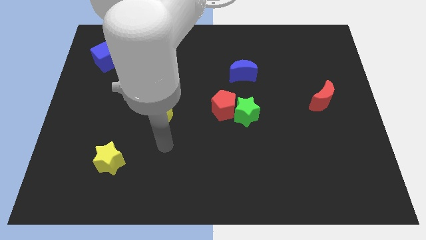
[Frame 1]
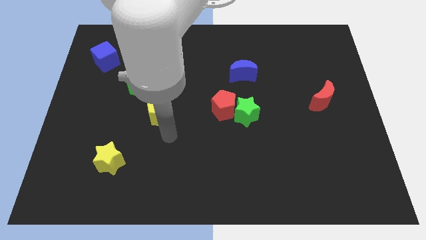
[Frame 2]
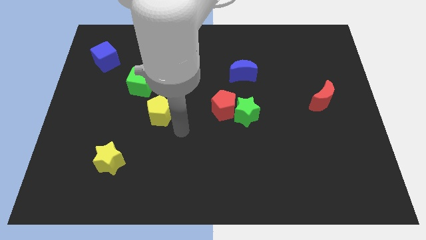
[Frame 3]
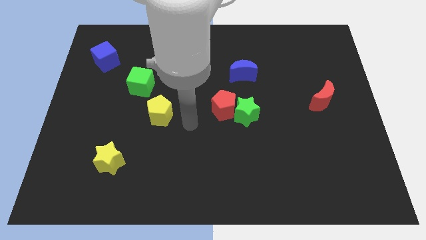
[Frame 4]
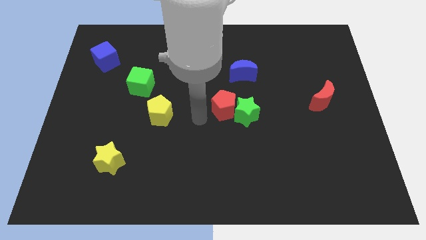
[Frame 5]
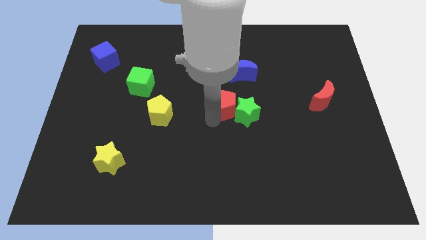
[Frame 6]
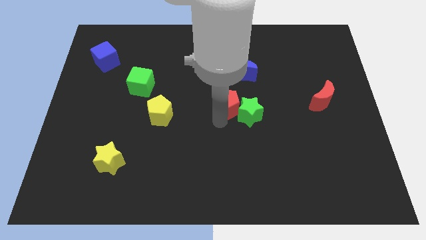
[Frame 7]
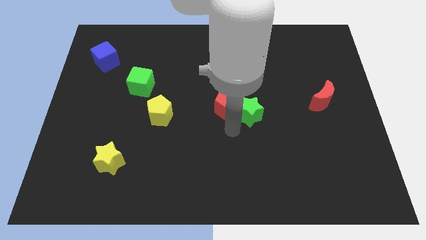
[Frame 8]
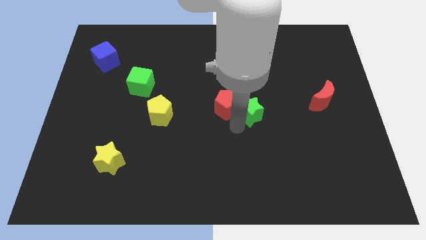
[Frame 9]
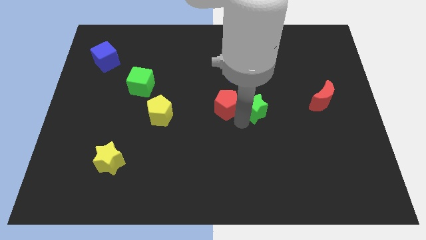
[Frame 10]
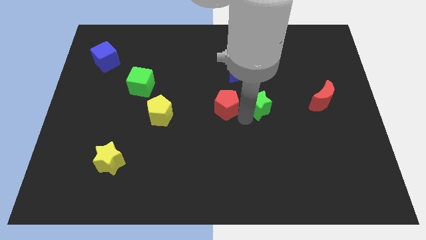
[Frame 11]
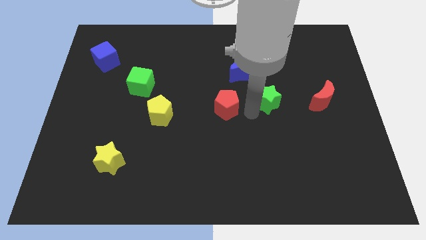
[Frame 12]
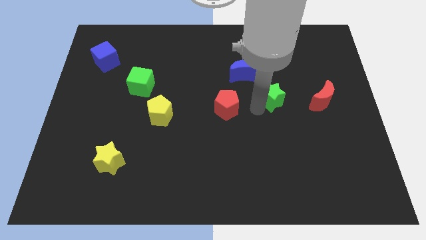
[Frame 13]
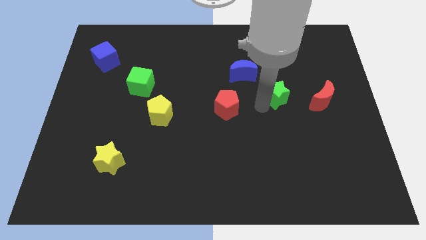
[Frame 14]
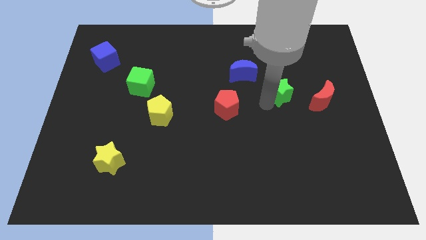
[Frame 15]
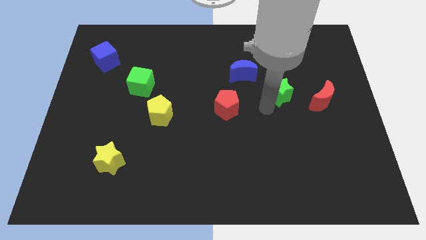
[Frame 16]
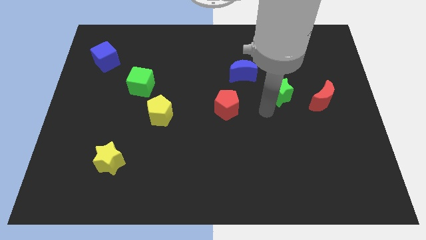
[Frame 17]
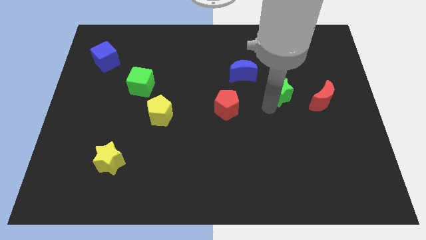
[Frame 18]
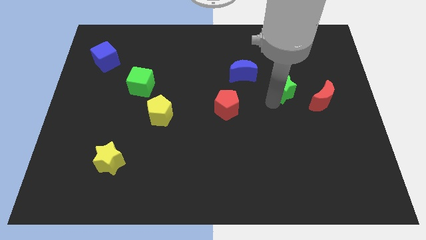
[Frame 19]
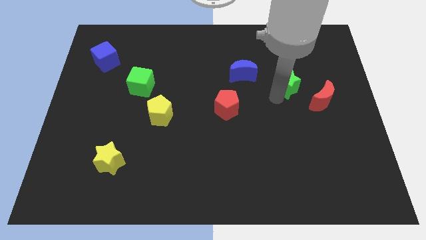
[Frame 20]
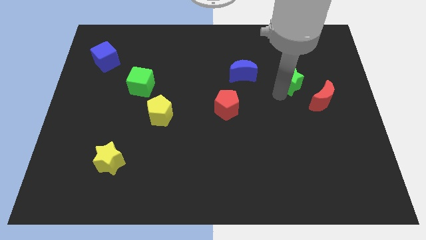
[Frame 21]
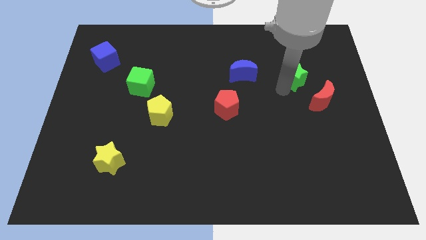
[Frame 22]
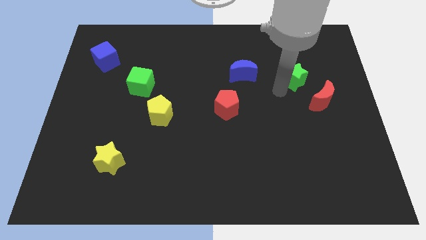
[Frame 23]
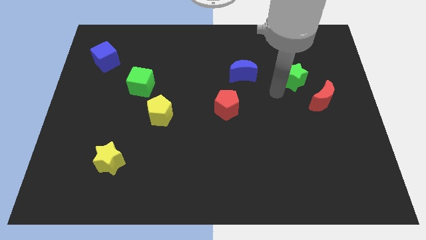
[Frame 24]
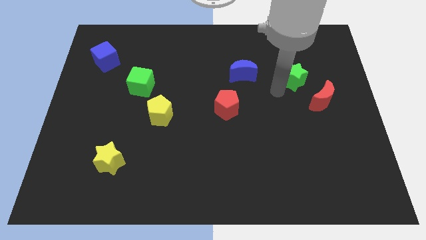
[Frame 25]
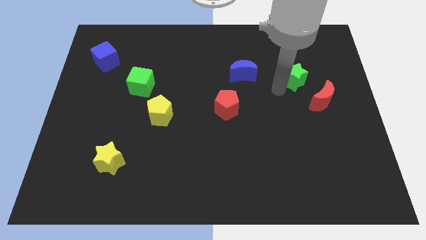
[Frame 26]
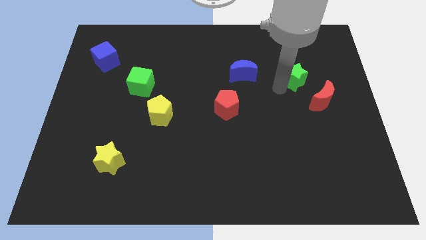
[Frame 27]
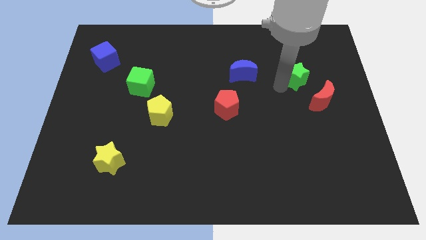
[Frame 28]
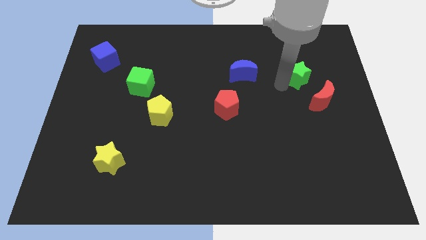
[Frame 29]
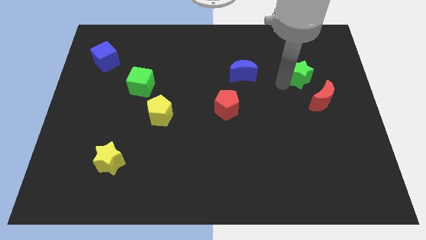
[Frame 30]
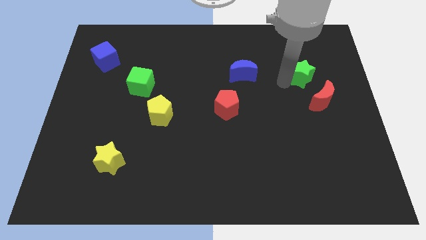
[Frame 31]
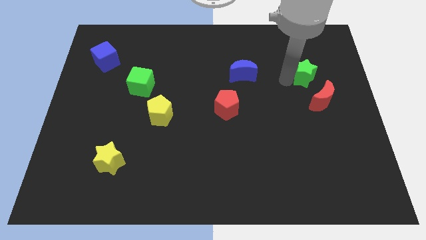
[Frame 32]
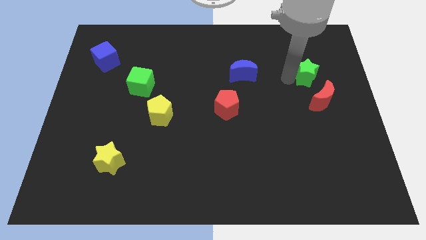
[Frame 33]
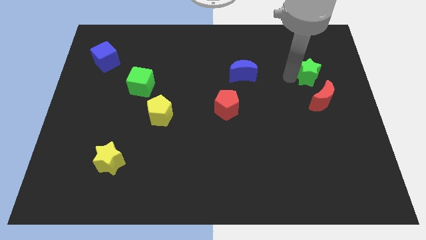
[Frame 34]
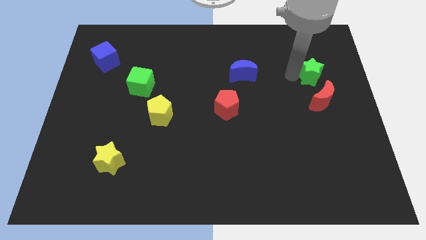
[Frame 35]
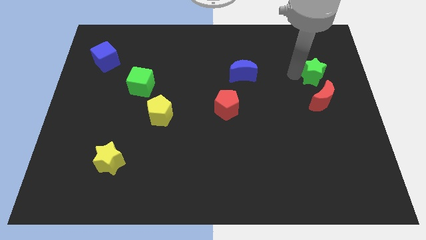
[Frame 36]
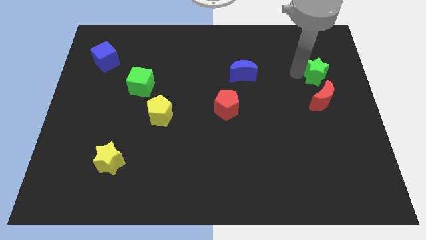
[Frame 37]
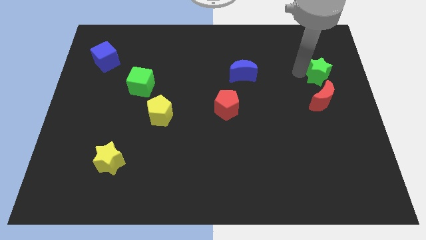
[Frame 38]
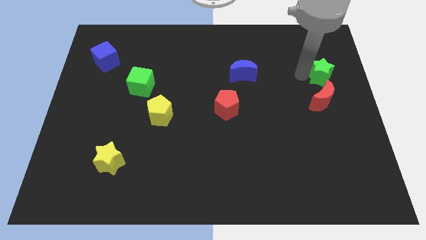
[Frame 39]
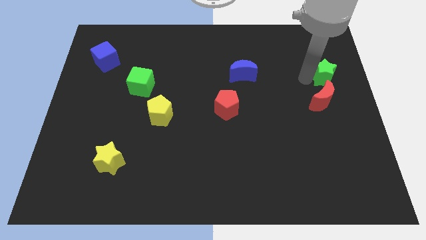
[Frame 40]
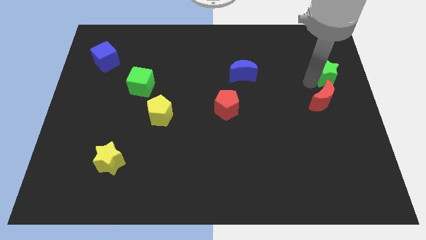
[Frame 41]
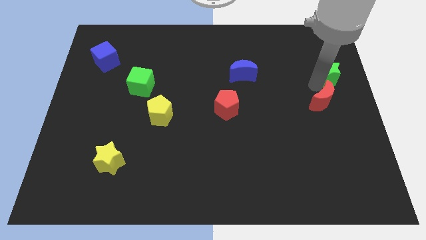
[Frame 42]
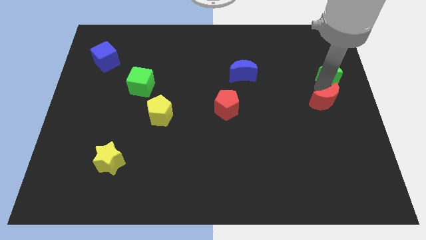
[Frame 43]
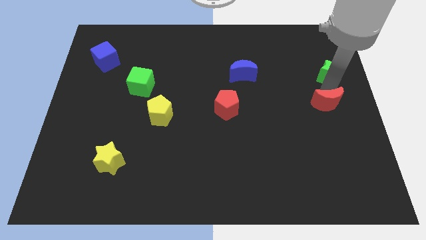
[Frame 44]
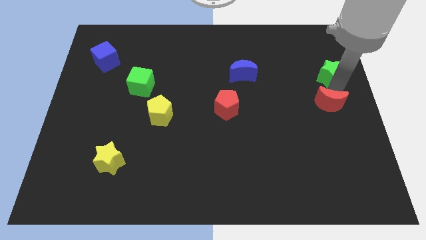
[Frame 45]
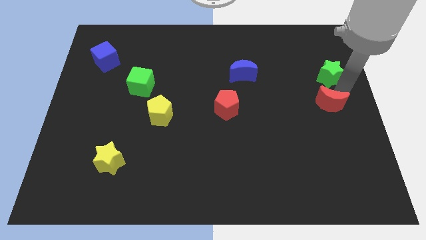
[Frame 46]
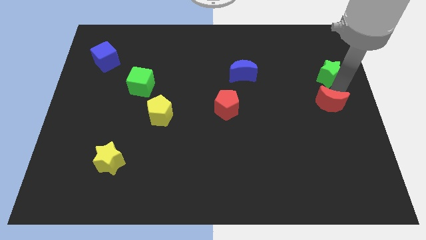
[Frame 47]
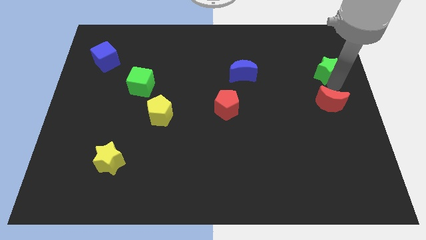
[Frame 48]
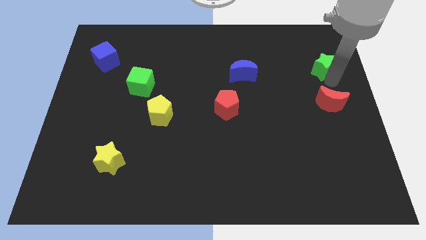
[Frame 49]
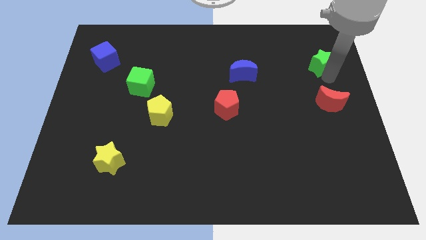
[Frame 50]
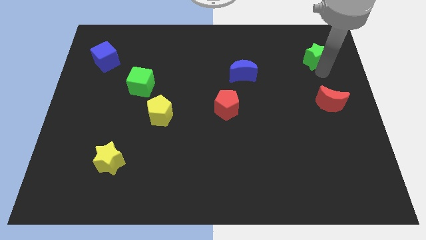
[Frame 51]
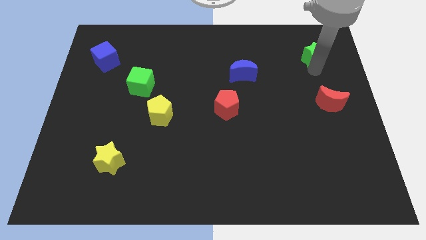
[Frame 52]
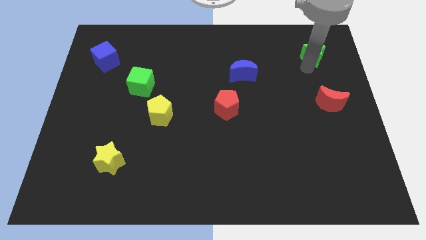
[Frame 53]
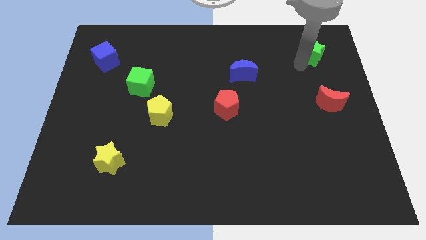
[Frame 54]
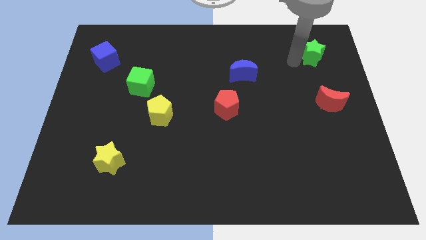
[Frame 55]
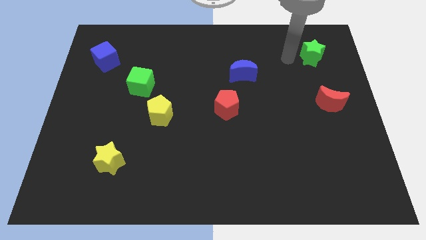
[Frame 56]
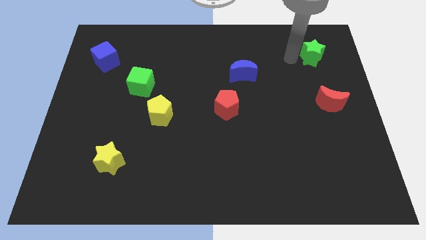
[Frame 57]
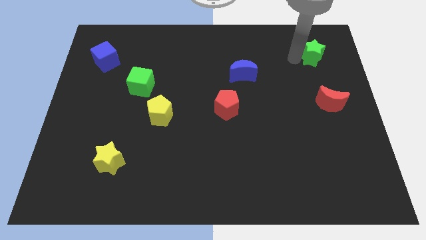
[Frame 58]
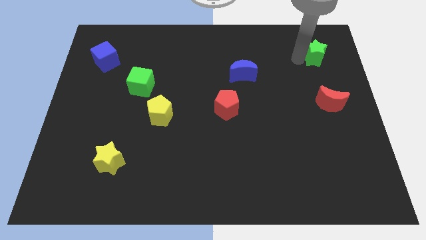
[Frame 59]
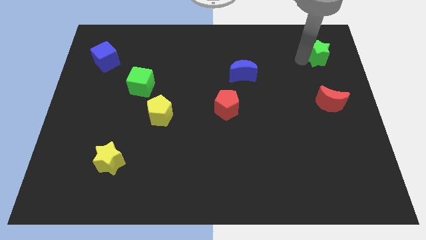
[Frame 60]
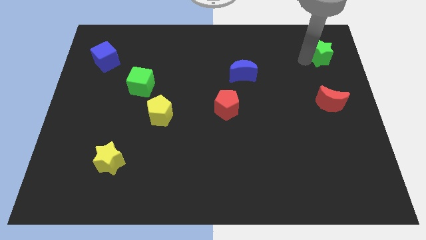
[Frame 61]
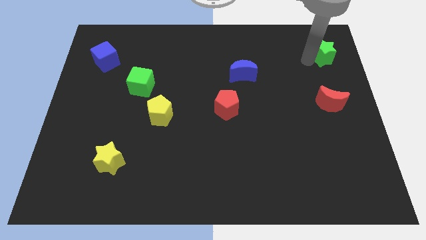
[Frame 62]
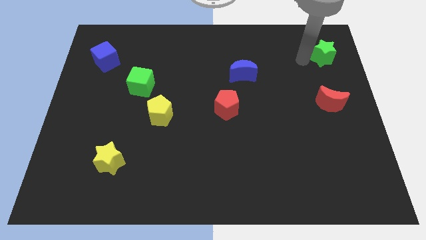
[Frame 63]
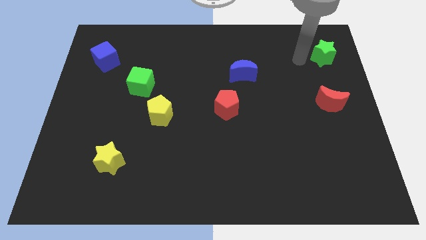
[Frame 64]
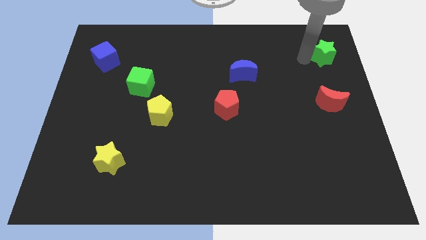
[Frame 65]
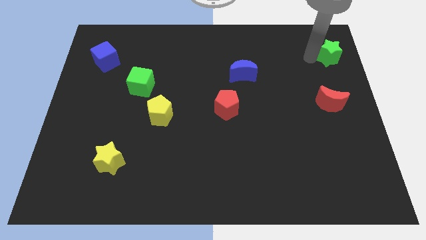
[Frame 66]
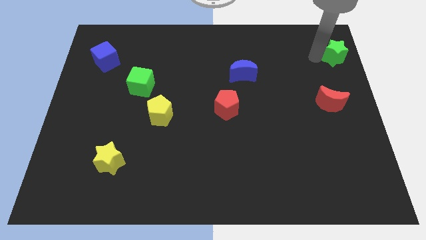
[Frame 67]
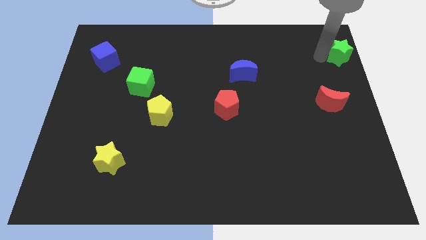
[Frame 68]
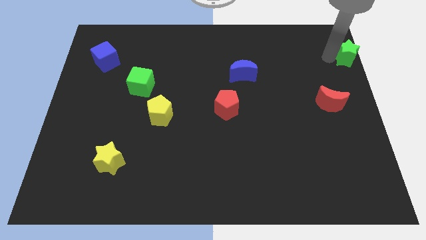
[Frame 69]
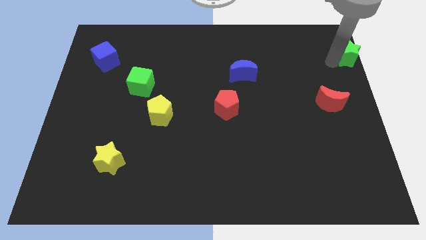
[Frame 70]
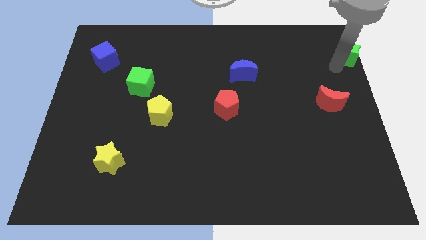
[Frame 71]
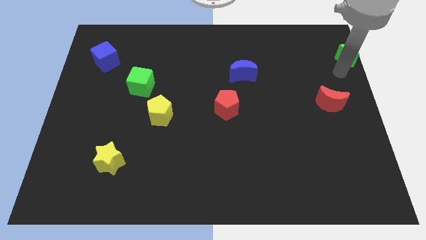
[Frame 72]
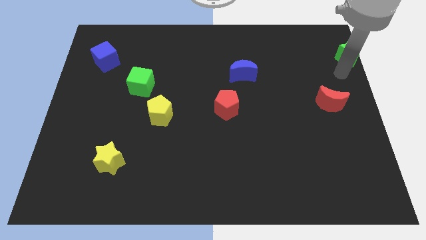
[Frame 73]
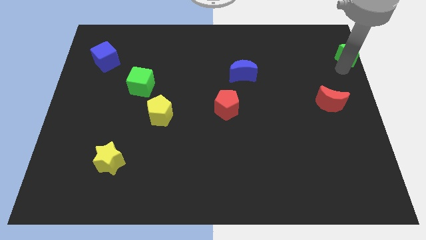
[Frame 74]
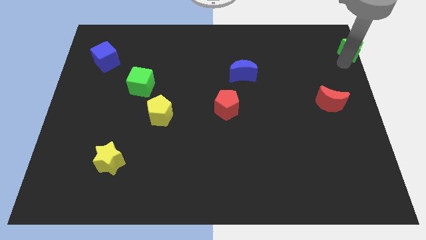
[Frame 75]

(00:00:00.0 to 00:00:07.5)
put the green star to the top right
